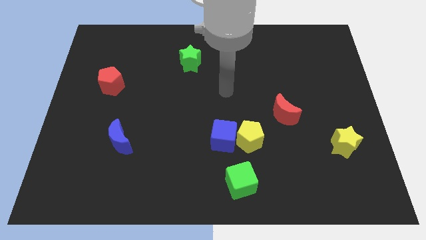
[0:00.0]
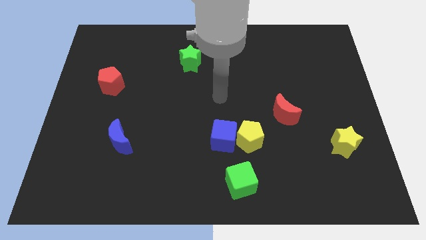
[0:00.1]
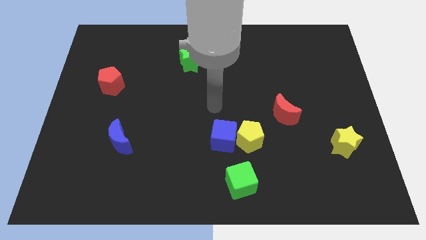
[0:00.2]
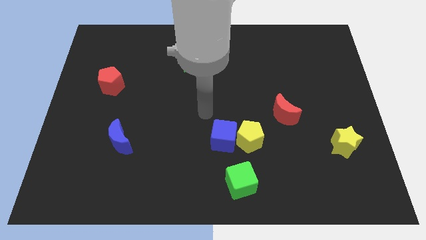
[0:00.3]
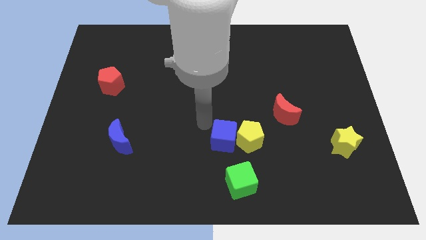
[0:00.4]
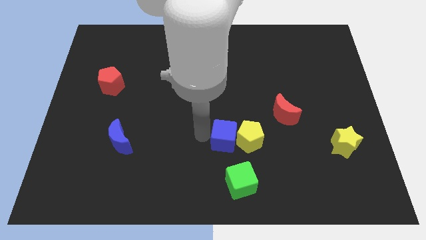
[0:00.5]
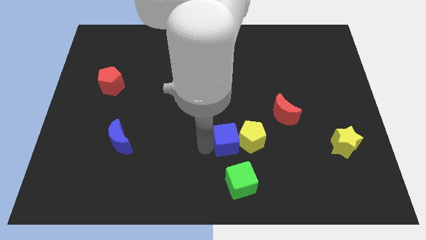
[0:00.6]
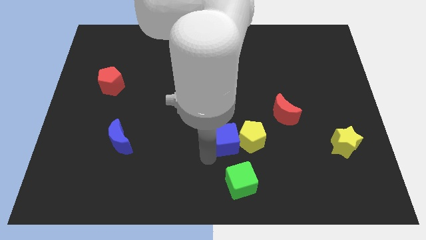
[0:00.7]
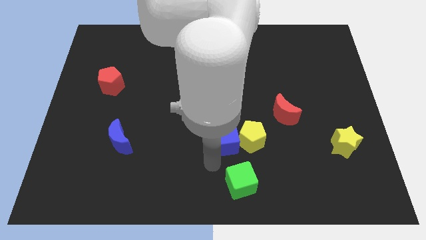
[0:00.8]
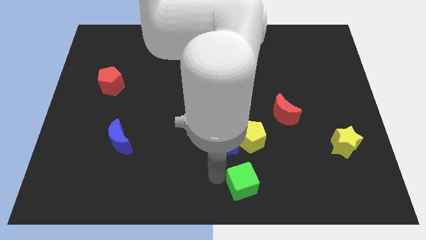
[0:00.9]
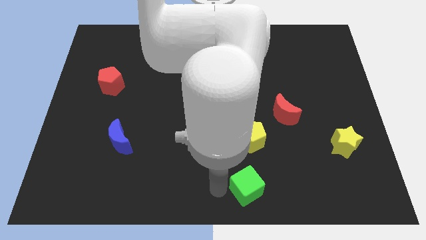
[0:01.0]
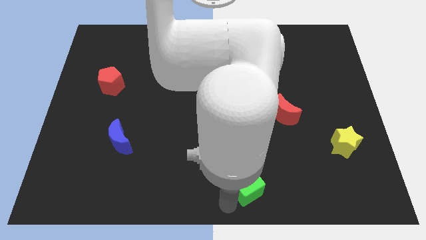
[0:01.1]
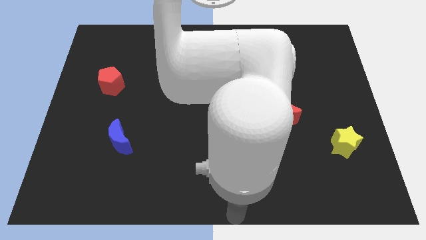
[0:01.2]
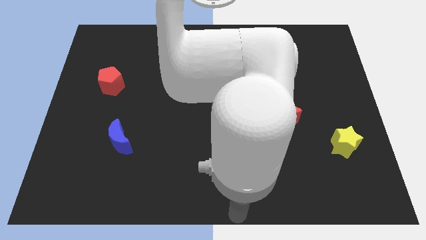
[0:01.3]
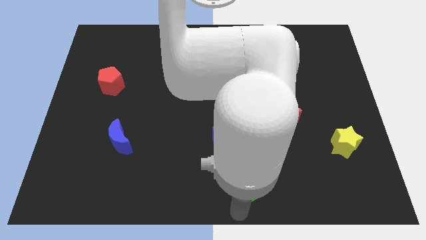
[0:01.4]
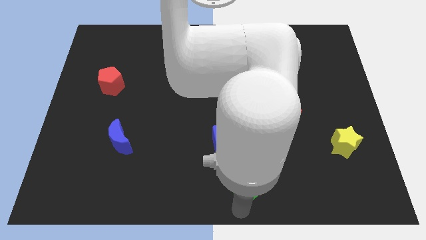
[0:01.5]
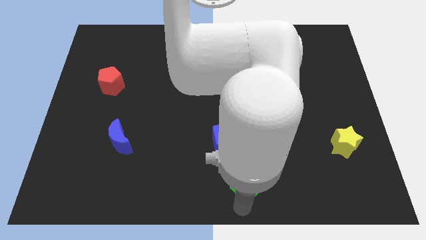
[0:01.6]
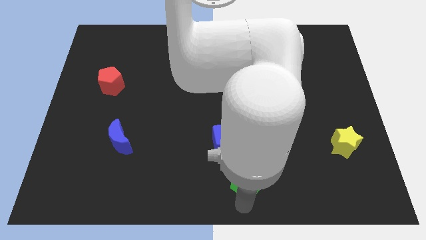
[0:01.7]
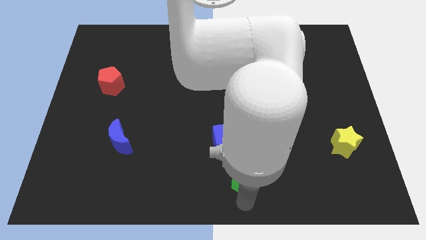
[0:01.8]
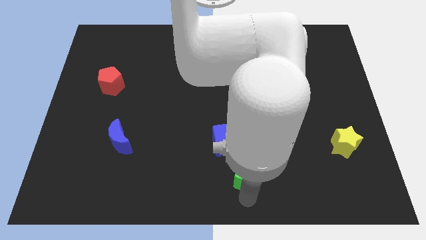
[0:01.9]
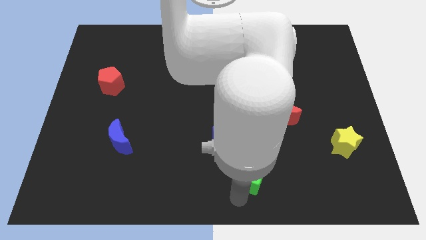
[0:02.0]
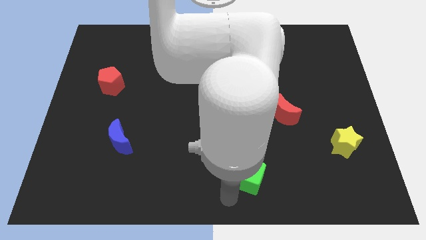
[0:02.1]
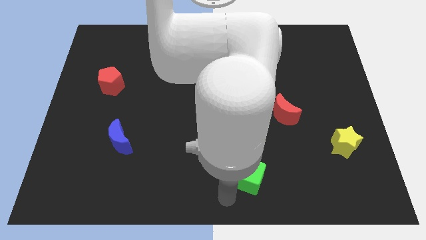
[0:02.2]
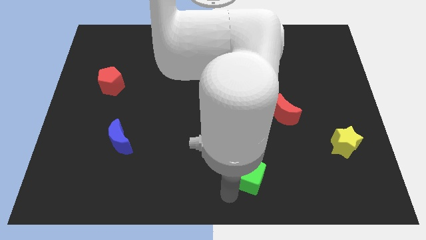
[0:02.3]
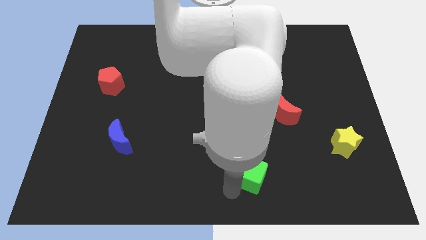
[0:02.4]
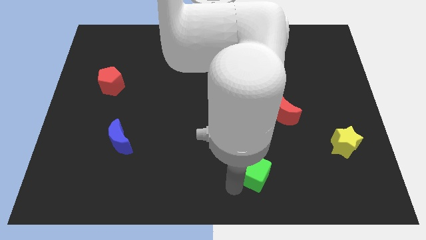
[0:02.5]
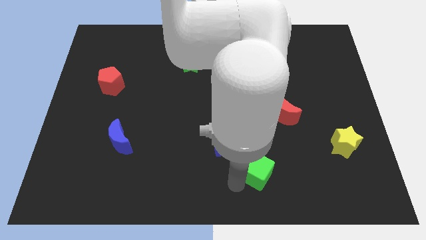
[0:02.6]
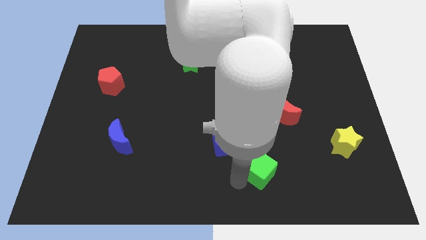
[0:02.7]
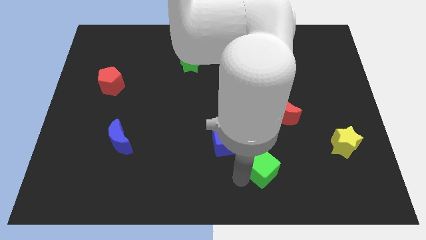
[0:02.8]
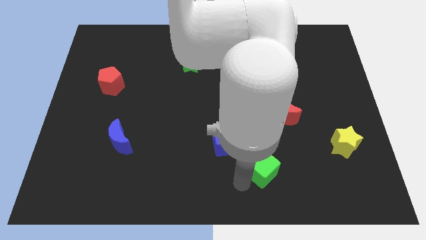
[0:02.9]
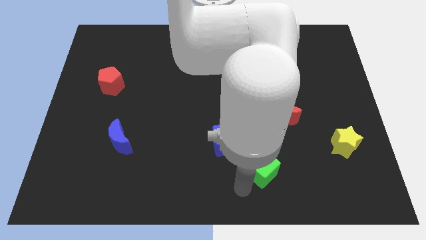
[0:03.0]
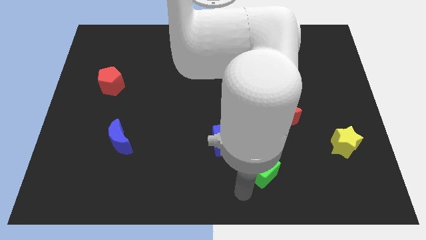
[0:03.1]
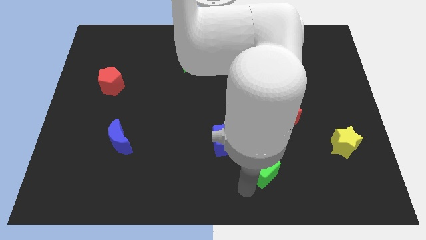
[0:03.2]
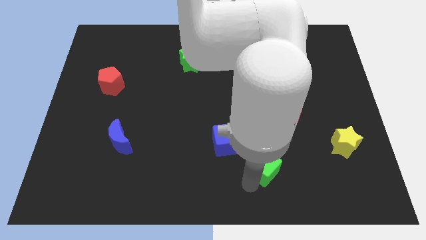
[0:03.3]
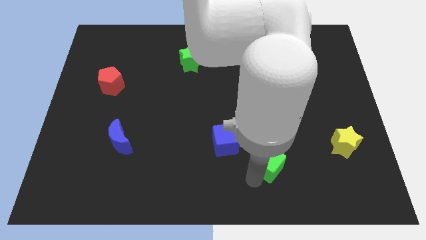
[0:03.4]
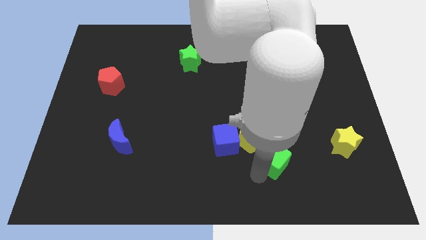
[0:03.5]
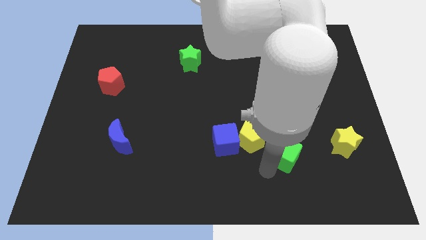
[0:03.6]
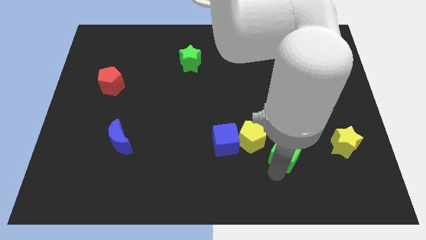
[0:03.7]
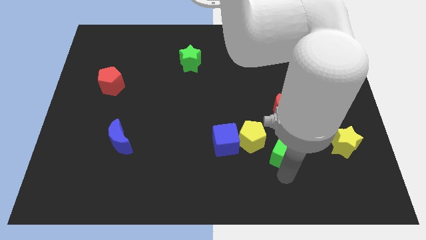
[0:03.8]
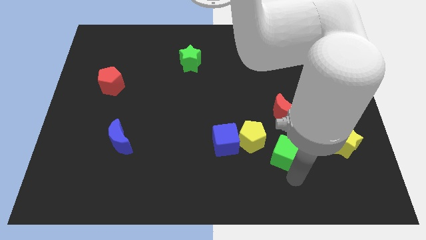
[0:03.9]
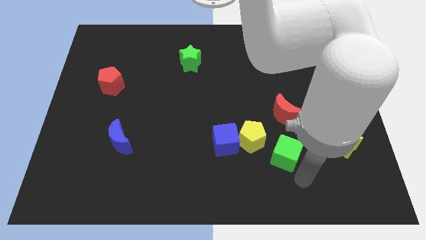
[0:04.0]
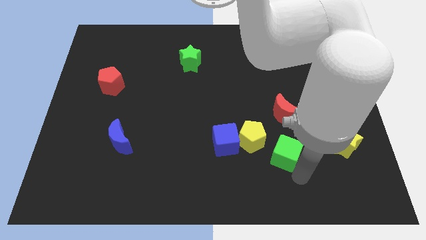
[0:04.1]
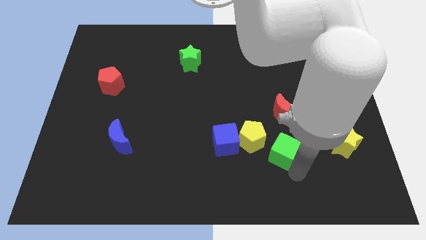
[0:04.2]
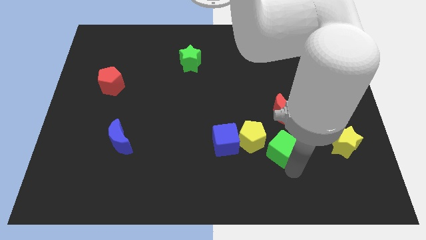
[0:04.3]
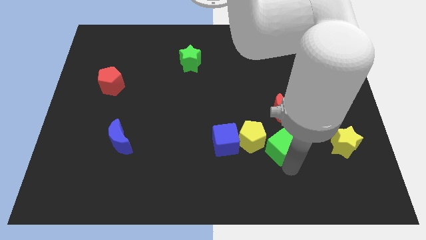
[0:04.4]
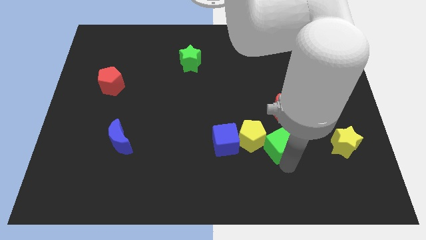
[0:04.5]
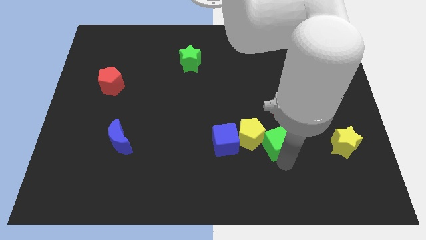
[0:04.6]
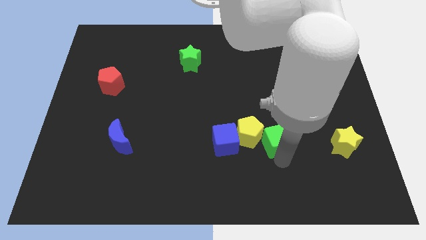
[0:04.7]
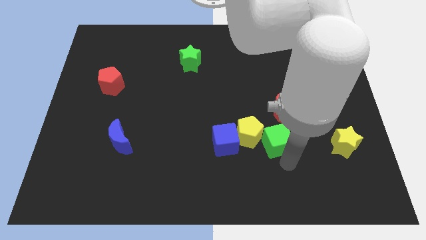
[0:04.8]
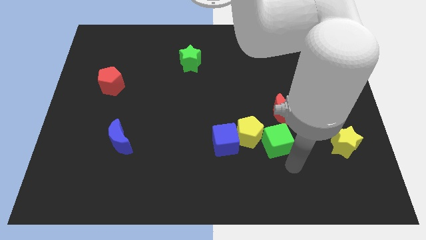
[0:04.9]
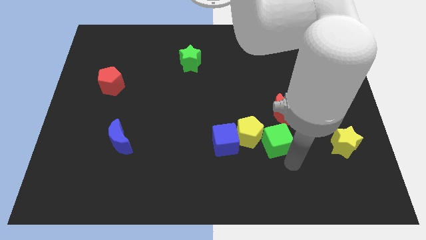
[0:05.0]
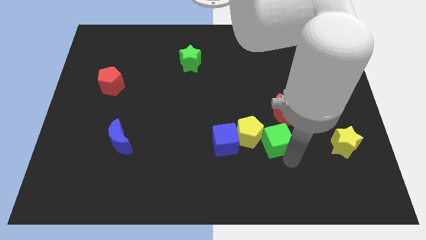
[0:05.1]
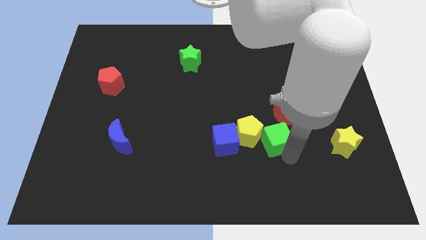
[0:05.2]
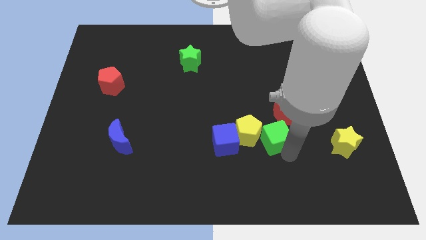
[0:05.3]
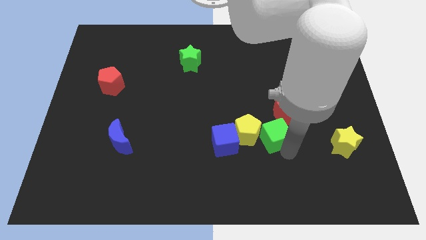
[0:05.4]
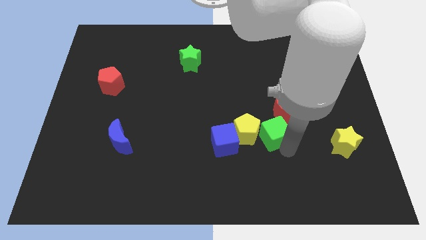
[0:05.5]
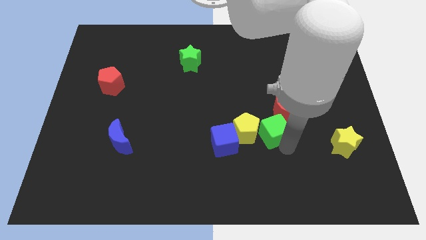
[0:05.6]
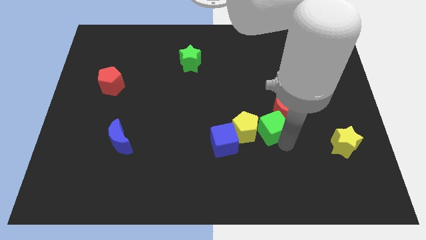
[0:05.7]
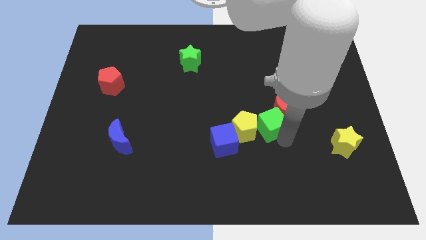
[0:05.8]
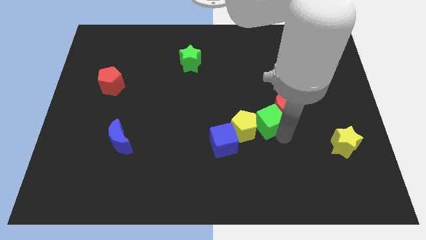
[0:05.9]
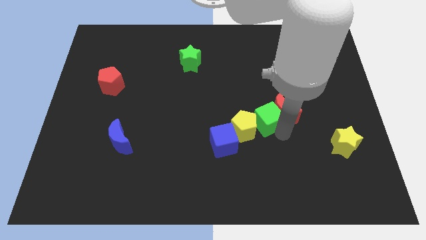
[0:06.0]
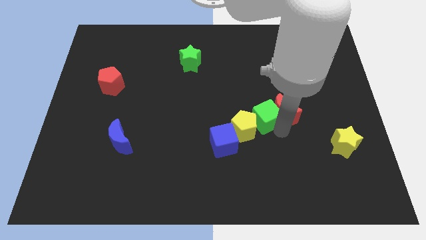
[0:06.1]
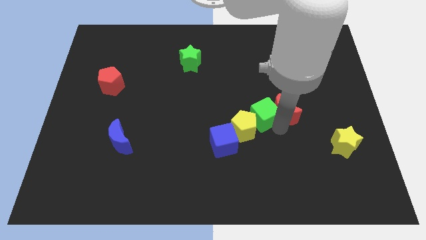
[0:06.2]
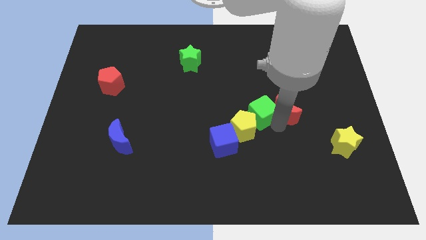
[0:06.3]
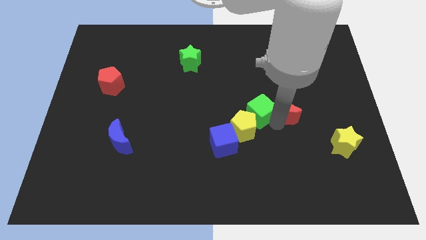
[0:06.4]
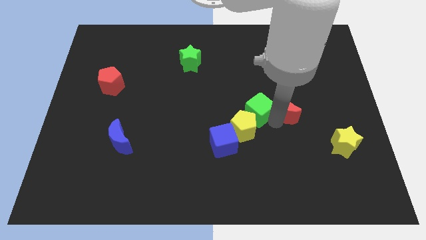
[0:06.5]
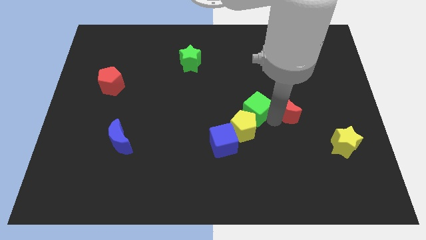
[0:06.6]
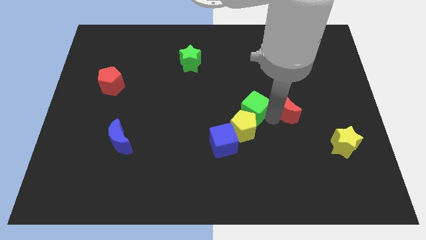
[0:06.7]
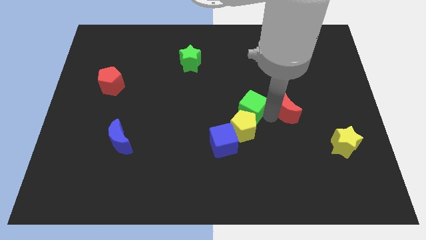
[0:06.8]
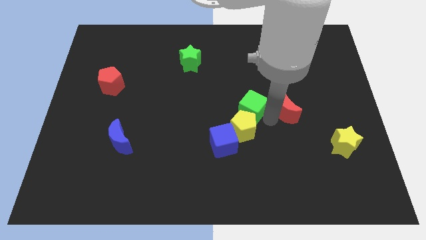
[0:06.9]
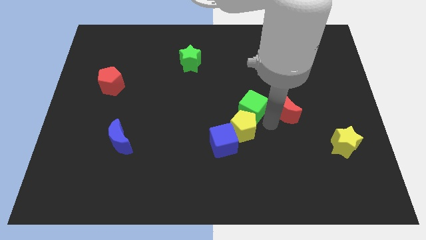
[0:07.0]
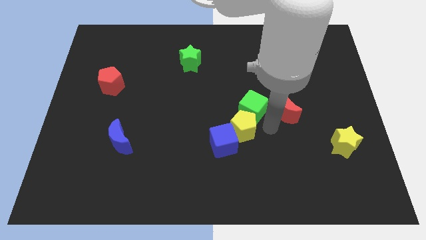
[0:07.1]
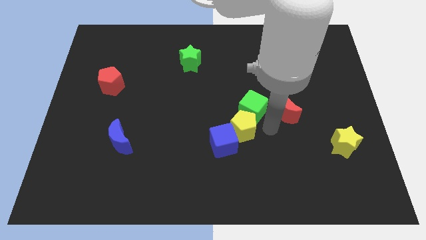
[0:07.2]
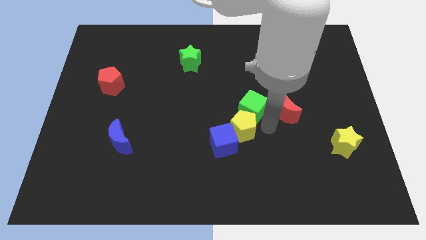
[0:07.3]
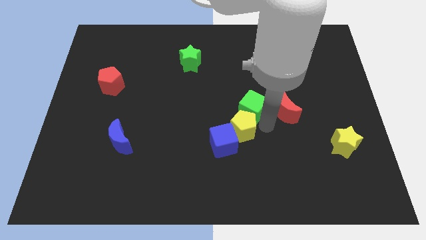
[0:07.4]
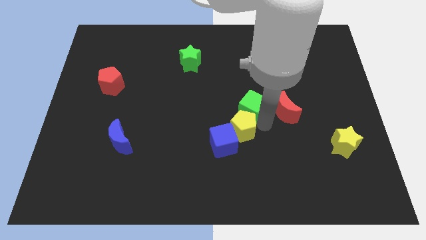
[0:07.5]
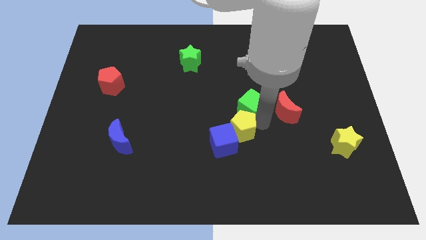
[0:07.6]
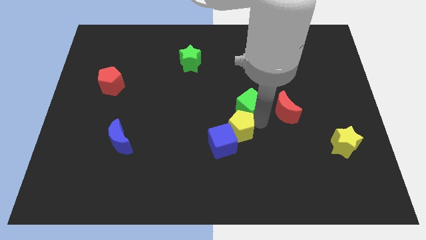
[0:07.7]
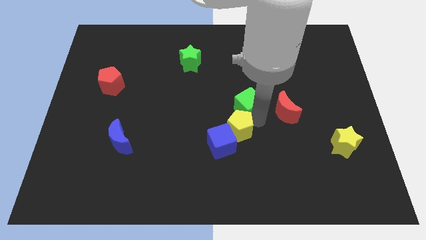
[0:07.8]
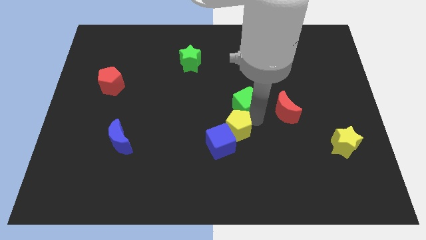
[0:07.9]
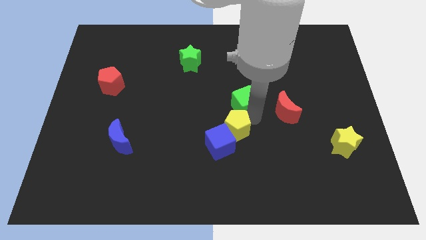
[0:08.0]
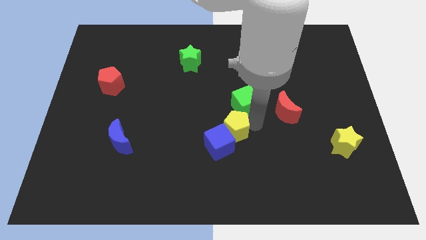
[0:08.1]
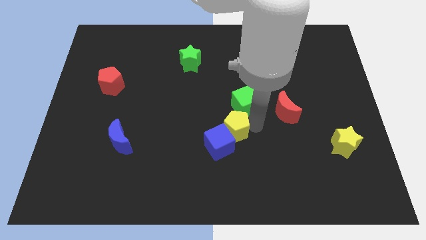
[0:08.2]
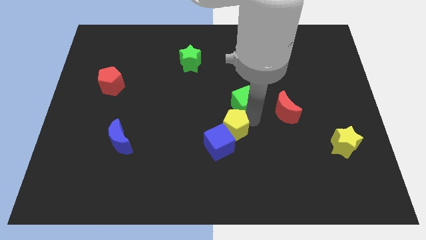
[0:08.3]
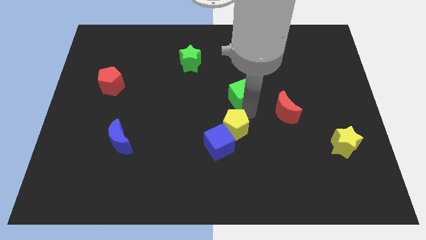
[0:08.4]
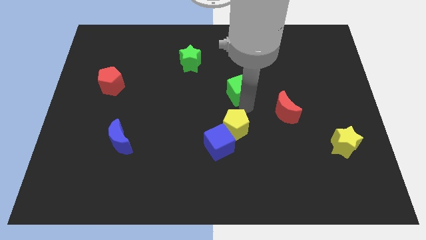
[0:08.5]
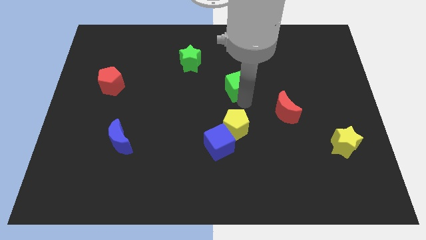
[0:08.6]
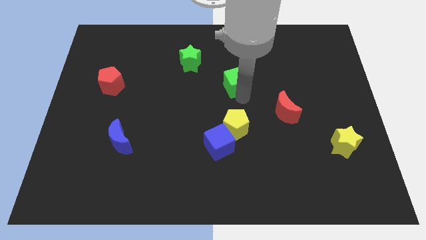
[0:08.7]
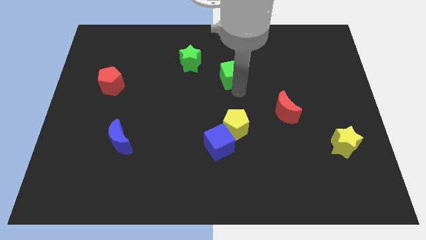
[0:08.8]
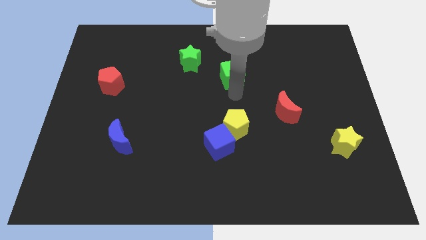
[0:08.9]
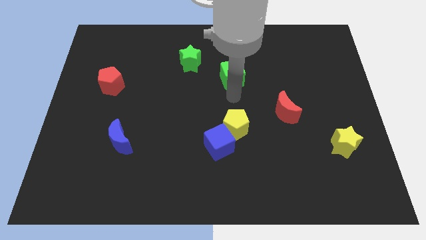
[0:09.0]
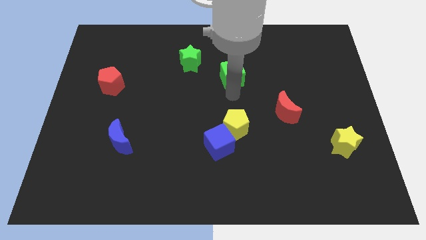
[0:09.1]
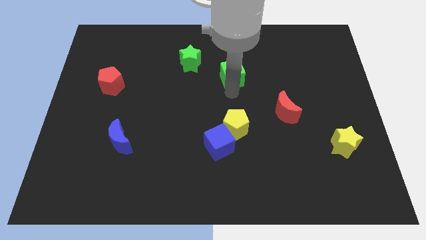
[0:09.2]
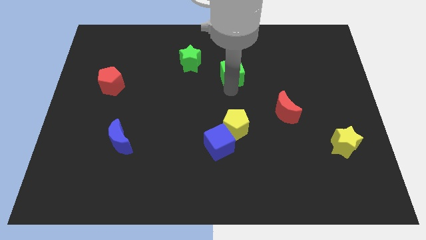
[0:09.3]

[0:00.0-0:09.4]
push the green cube right of the green star
